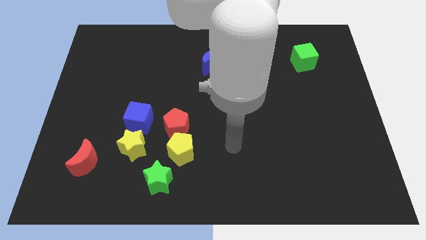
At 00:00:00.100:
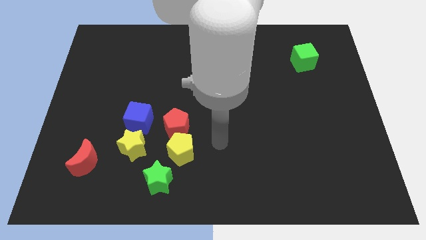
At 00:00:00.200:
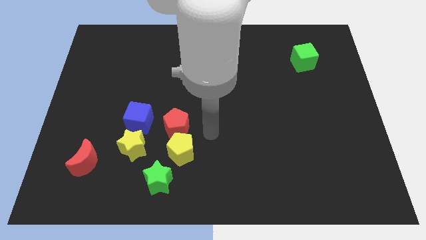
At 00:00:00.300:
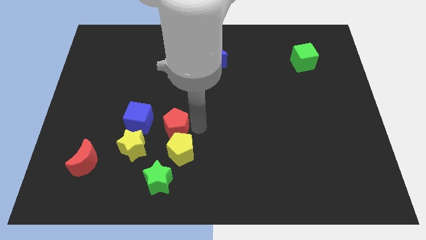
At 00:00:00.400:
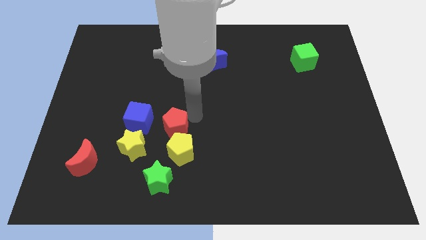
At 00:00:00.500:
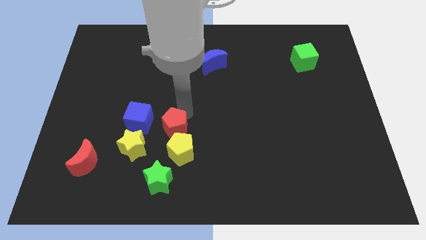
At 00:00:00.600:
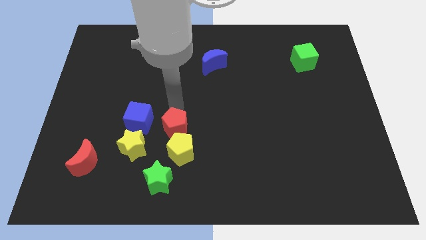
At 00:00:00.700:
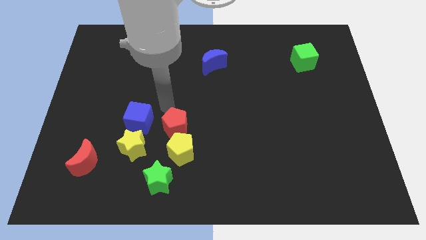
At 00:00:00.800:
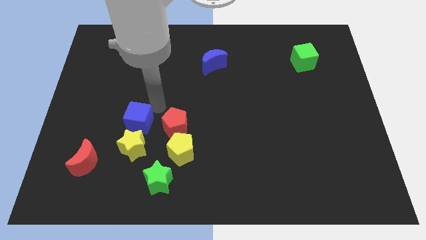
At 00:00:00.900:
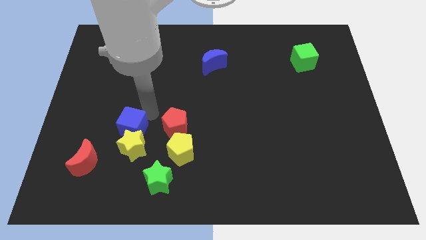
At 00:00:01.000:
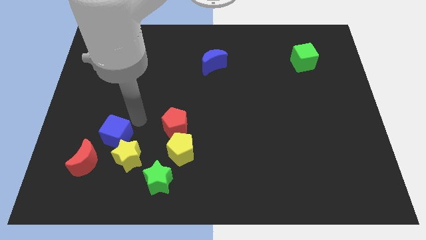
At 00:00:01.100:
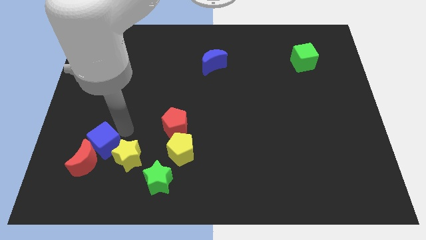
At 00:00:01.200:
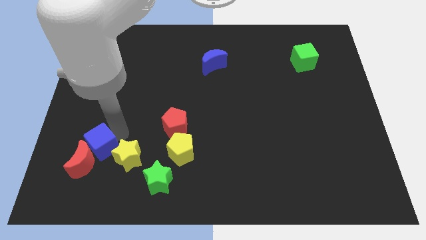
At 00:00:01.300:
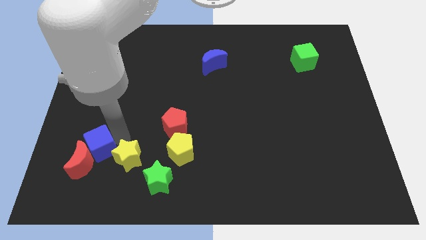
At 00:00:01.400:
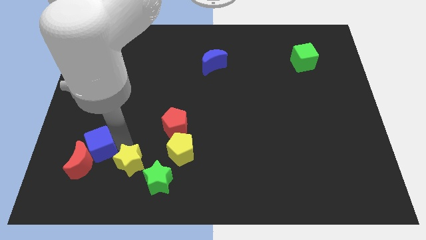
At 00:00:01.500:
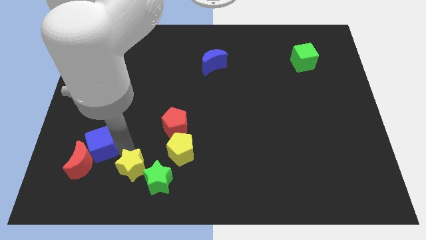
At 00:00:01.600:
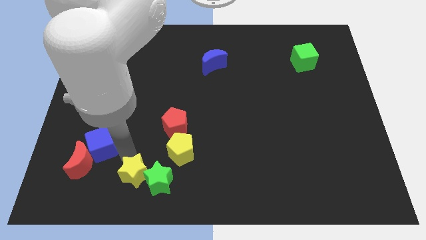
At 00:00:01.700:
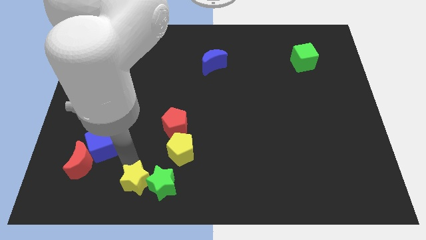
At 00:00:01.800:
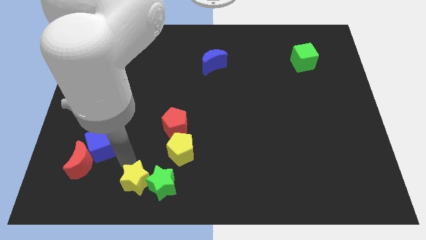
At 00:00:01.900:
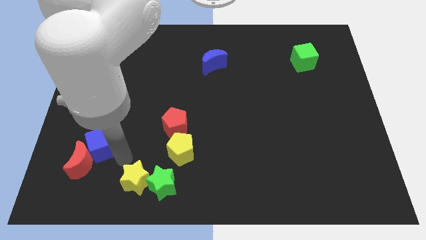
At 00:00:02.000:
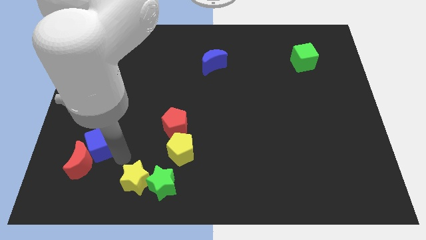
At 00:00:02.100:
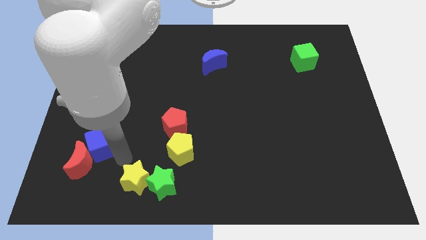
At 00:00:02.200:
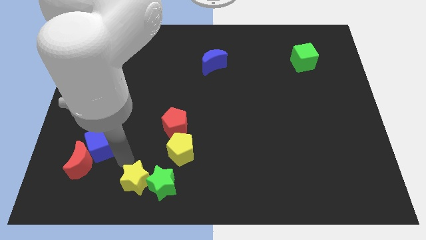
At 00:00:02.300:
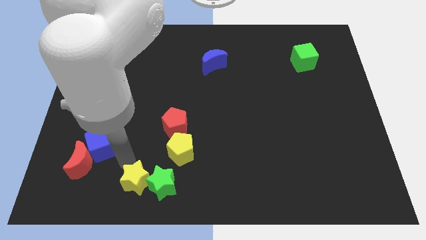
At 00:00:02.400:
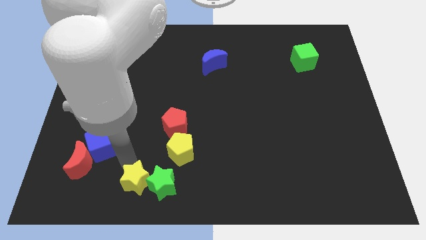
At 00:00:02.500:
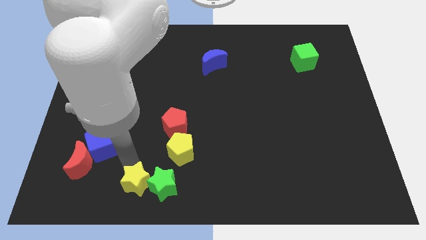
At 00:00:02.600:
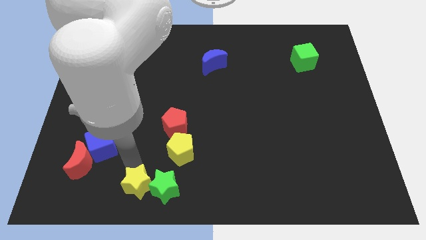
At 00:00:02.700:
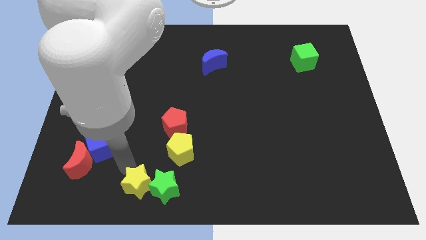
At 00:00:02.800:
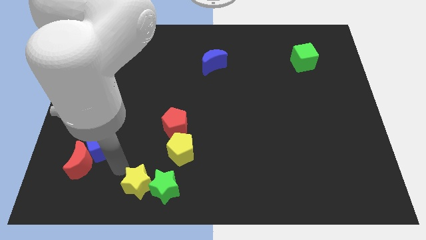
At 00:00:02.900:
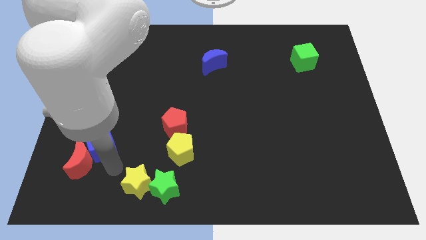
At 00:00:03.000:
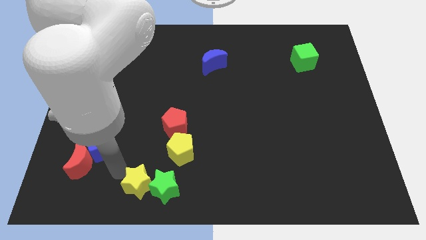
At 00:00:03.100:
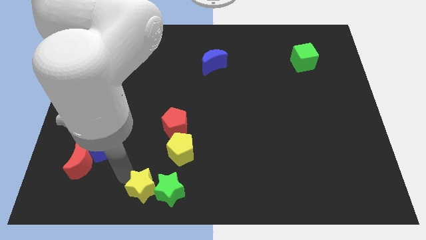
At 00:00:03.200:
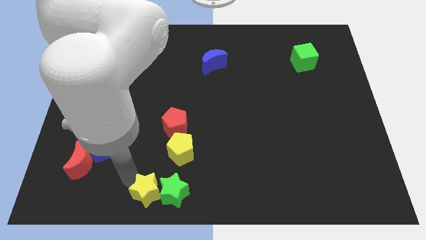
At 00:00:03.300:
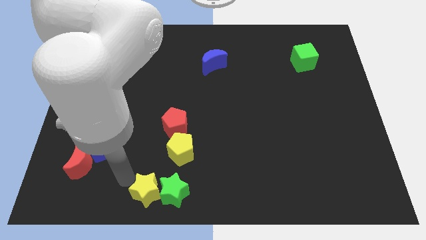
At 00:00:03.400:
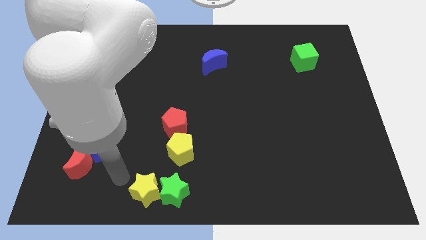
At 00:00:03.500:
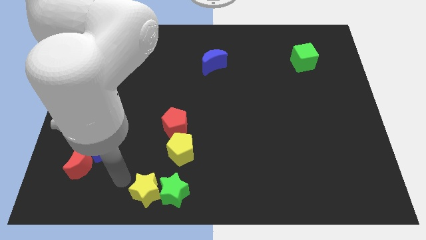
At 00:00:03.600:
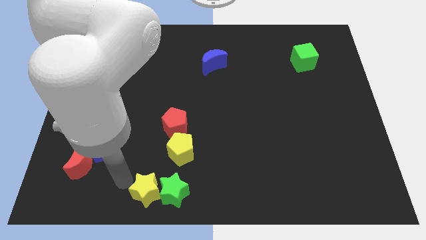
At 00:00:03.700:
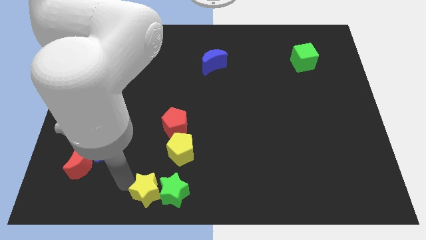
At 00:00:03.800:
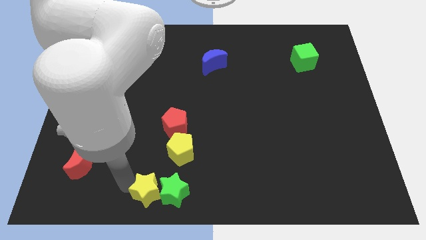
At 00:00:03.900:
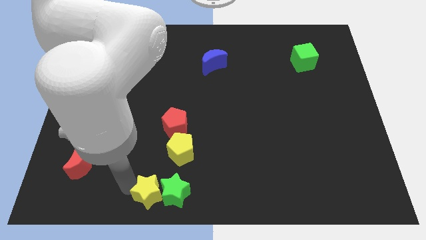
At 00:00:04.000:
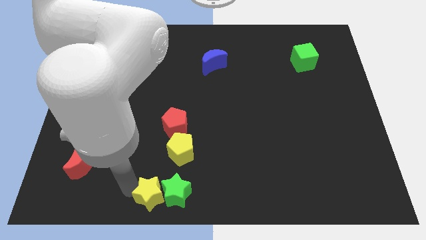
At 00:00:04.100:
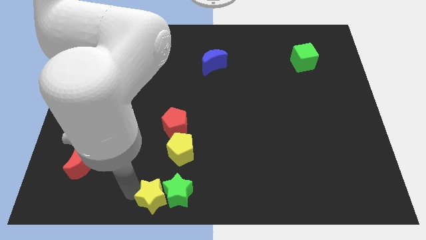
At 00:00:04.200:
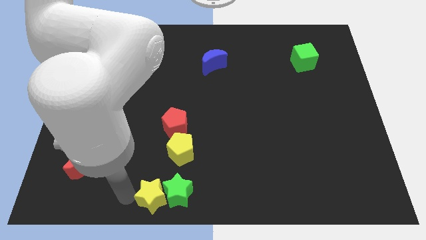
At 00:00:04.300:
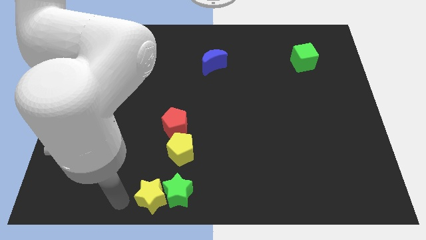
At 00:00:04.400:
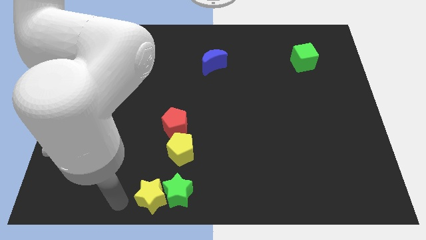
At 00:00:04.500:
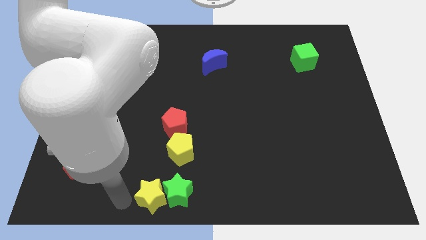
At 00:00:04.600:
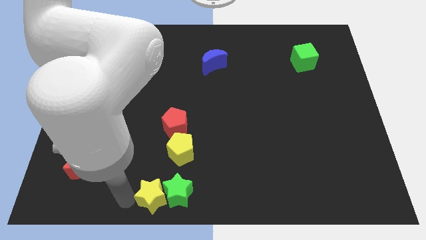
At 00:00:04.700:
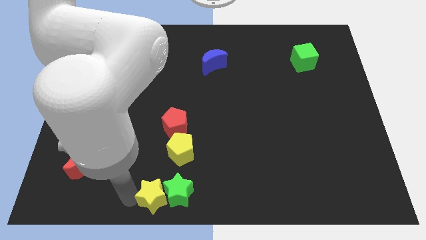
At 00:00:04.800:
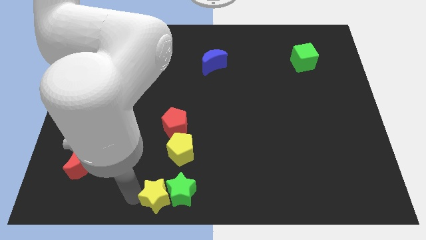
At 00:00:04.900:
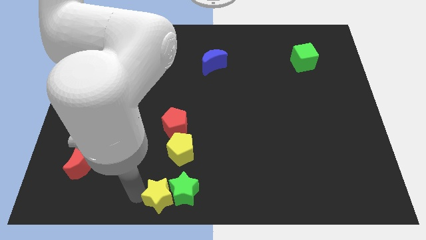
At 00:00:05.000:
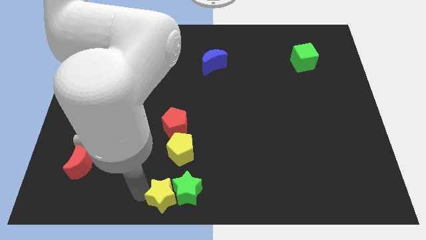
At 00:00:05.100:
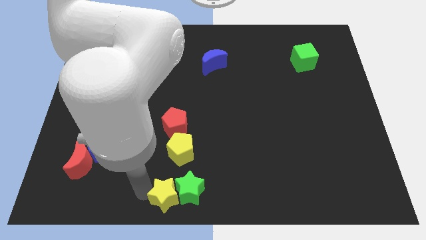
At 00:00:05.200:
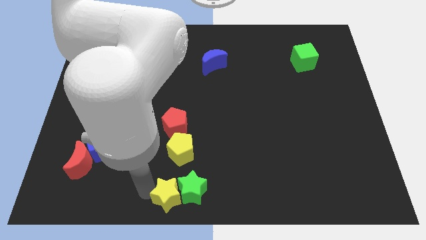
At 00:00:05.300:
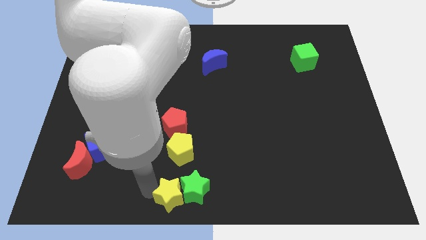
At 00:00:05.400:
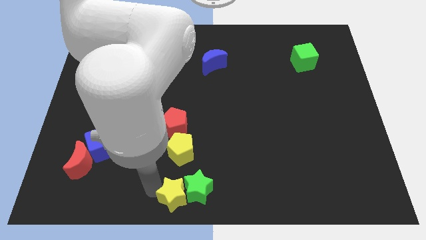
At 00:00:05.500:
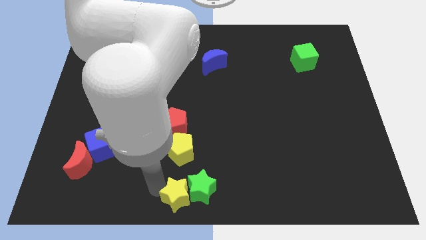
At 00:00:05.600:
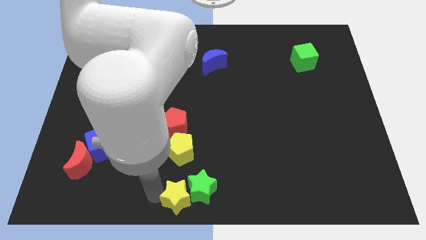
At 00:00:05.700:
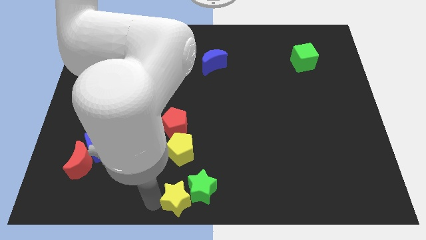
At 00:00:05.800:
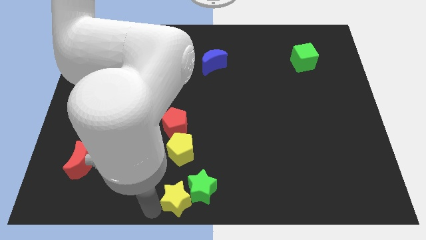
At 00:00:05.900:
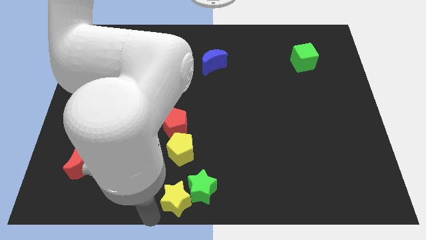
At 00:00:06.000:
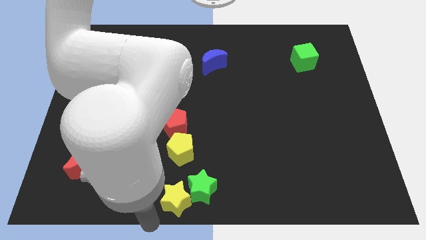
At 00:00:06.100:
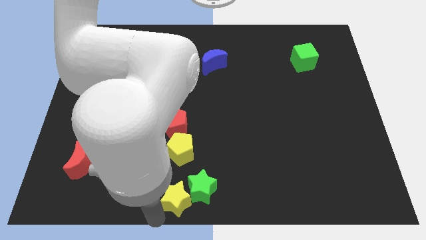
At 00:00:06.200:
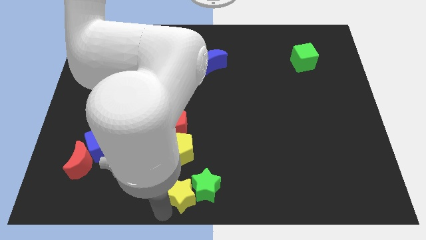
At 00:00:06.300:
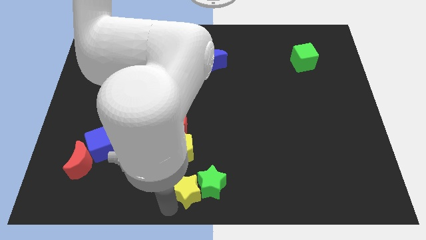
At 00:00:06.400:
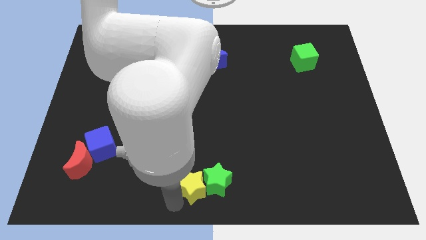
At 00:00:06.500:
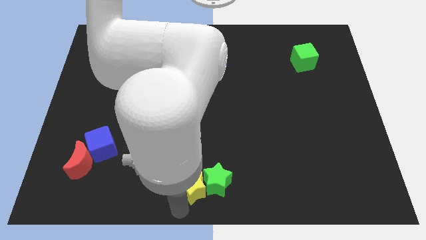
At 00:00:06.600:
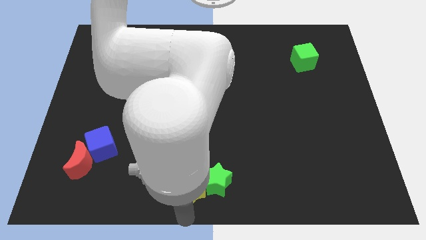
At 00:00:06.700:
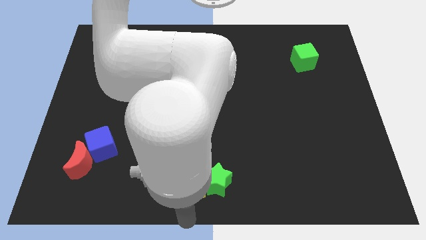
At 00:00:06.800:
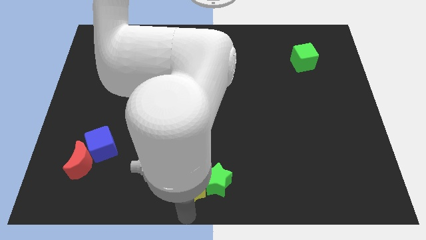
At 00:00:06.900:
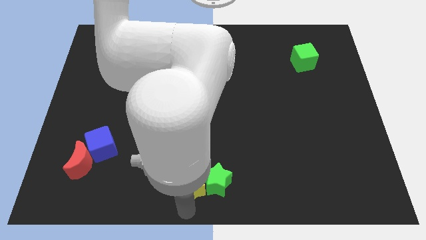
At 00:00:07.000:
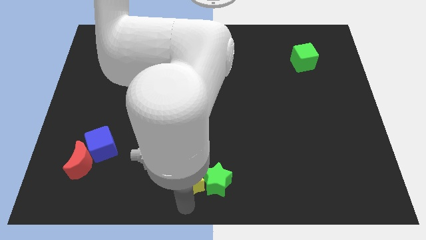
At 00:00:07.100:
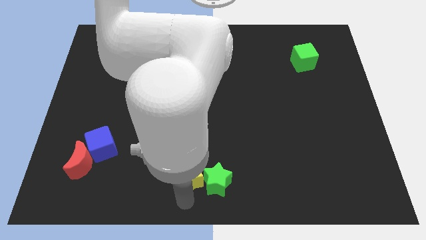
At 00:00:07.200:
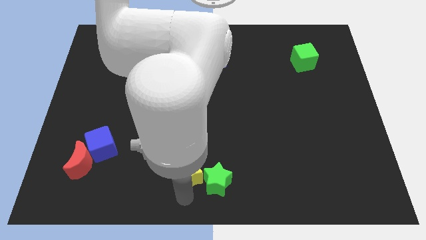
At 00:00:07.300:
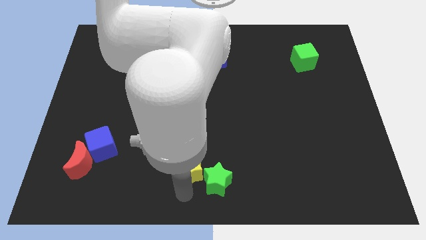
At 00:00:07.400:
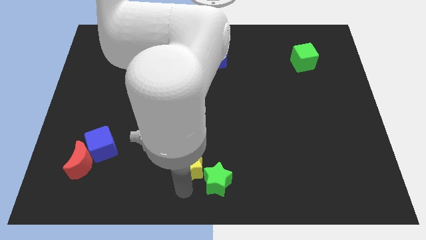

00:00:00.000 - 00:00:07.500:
move the yellow star diagonally down and to the right of the red pentagon
